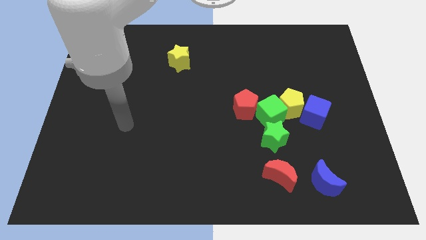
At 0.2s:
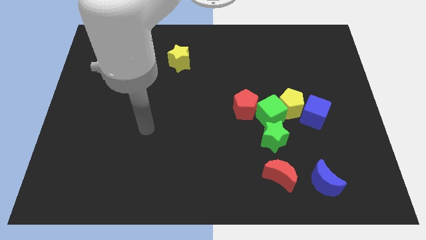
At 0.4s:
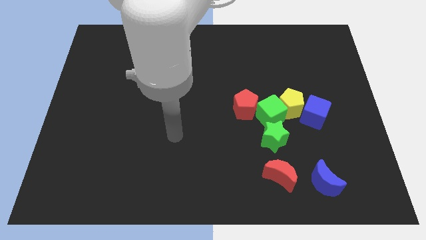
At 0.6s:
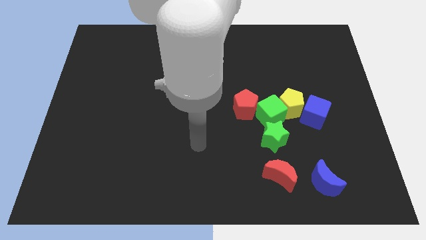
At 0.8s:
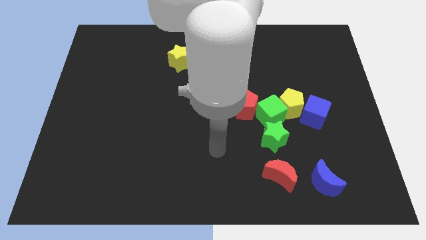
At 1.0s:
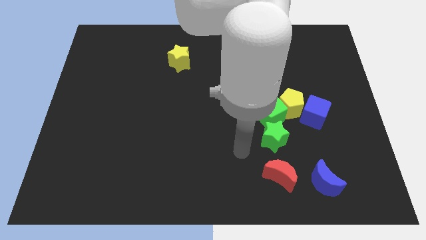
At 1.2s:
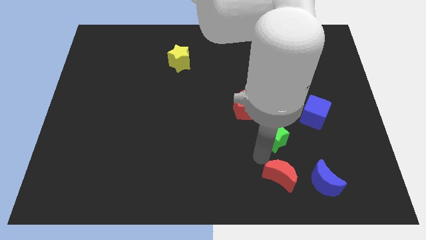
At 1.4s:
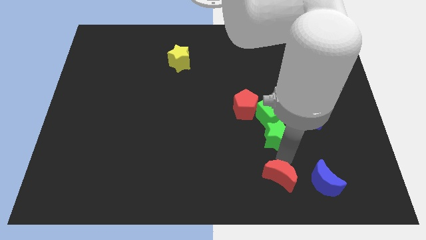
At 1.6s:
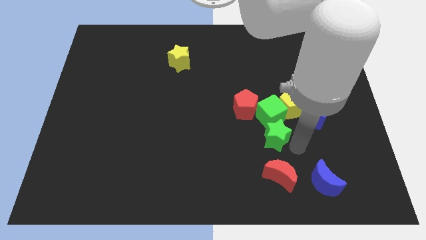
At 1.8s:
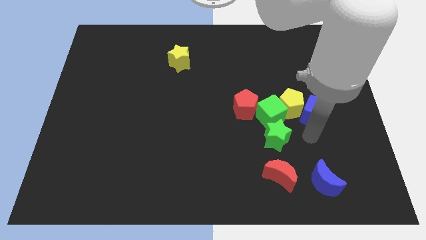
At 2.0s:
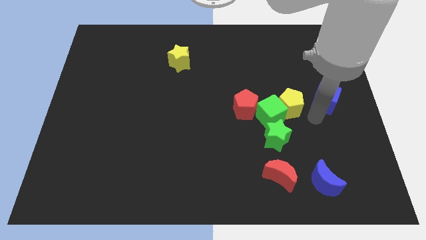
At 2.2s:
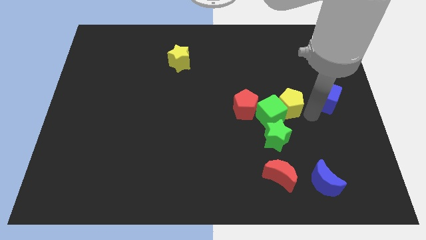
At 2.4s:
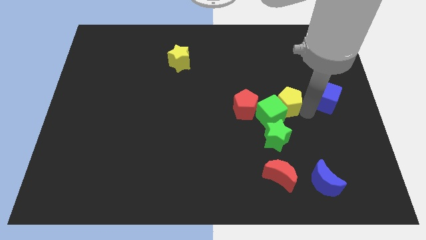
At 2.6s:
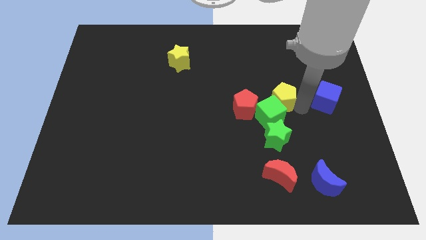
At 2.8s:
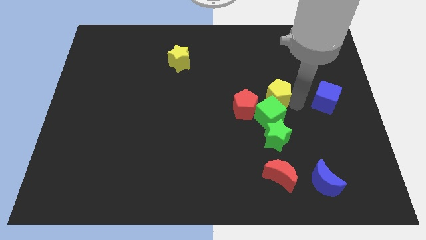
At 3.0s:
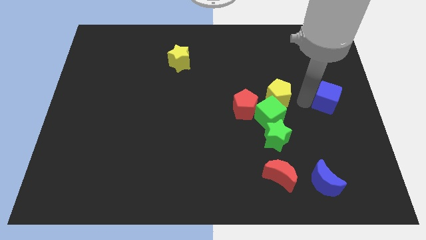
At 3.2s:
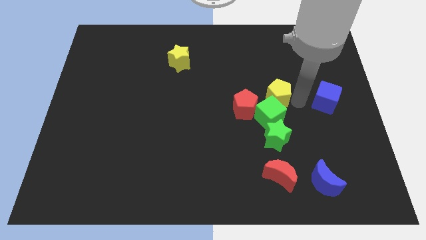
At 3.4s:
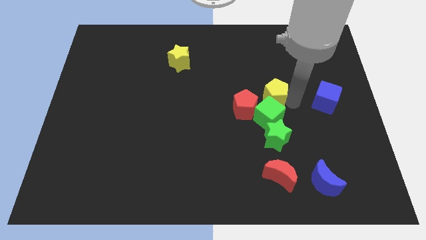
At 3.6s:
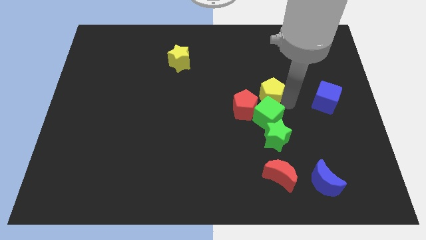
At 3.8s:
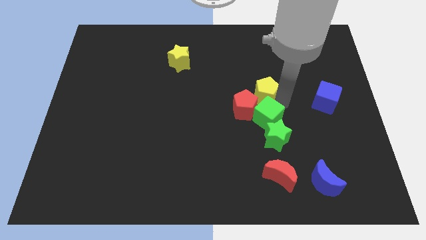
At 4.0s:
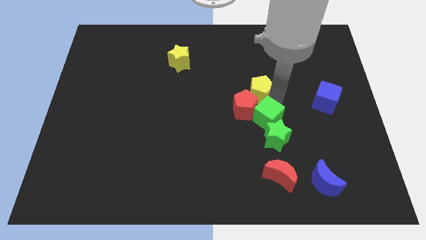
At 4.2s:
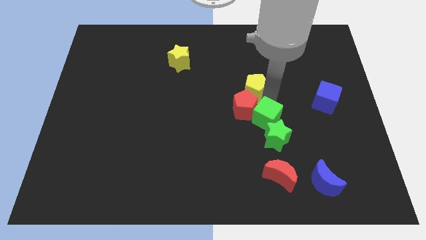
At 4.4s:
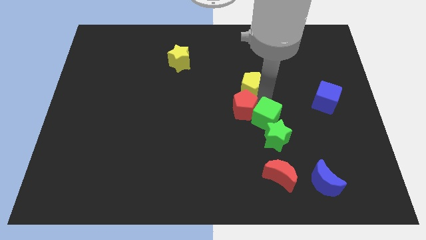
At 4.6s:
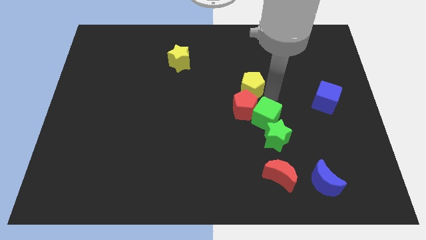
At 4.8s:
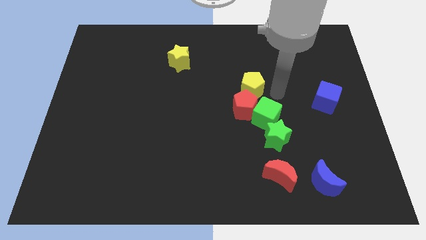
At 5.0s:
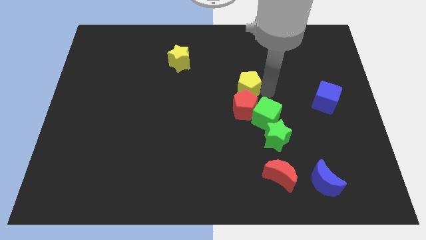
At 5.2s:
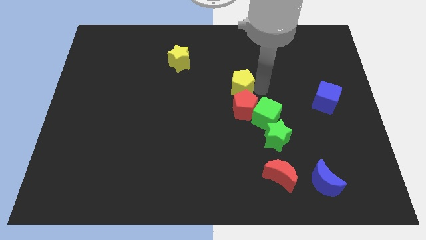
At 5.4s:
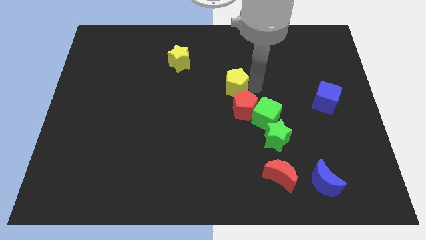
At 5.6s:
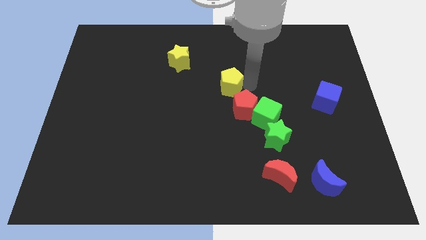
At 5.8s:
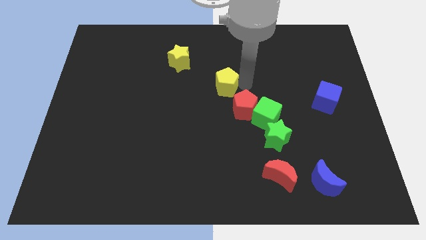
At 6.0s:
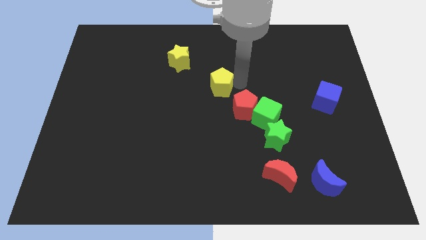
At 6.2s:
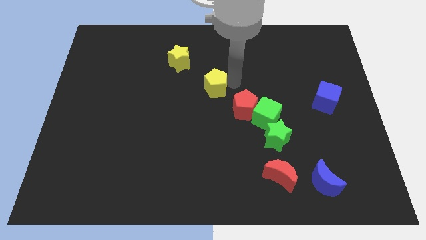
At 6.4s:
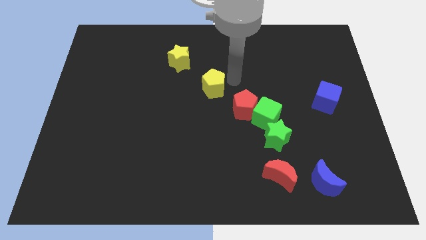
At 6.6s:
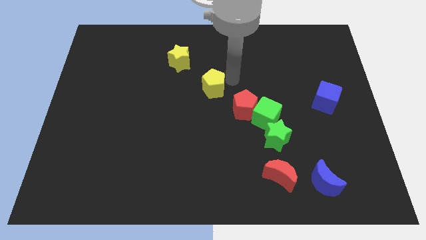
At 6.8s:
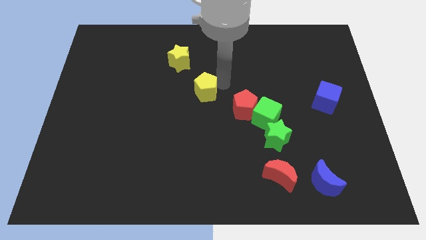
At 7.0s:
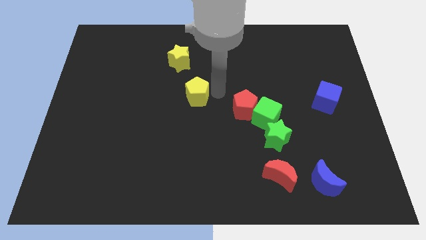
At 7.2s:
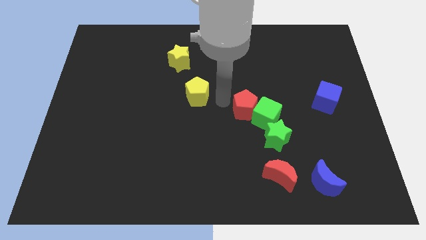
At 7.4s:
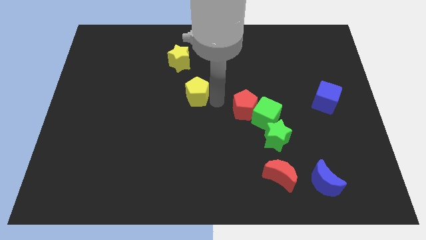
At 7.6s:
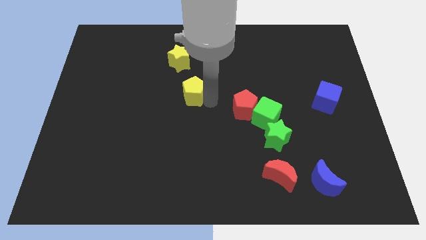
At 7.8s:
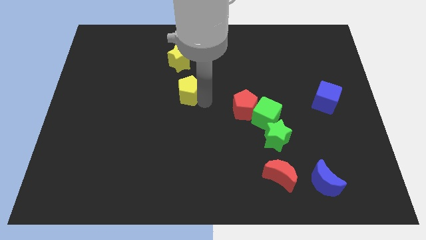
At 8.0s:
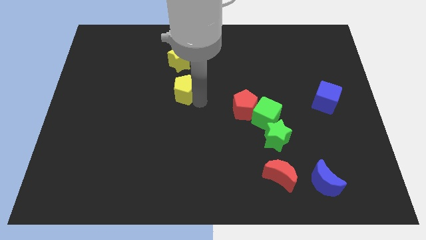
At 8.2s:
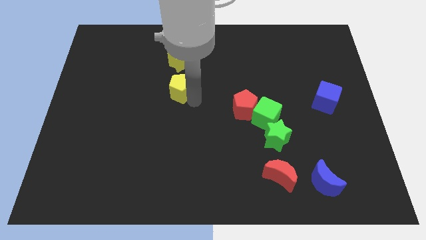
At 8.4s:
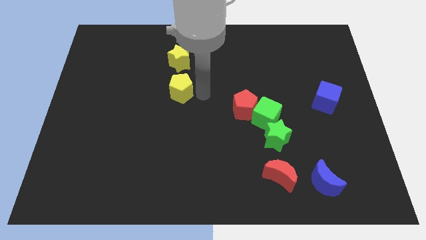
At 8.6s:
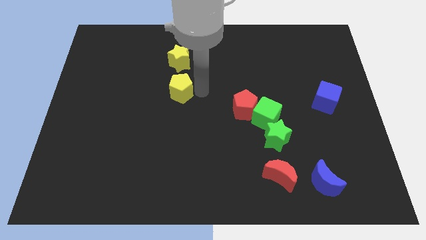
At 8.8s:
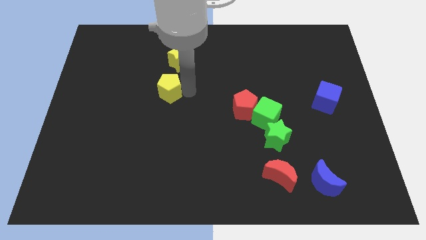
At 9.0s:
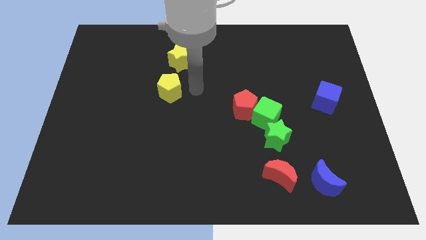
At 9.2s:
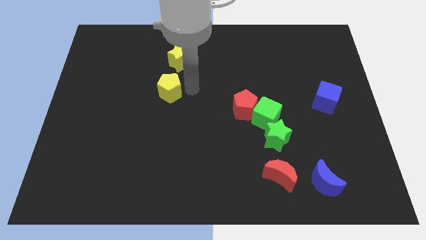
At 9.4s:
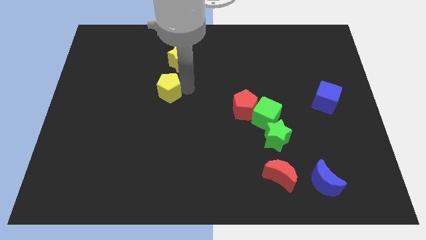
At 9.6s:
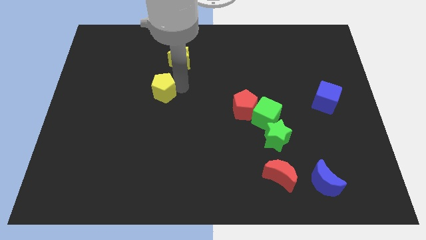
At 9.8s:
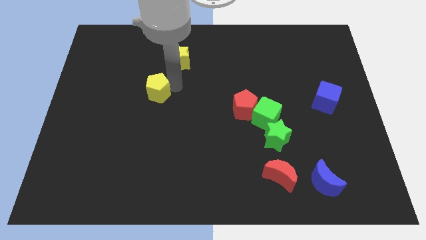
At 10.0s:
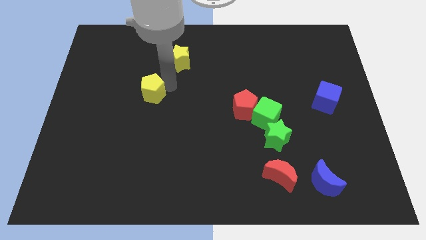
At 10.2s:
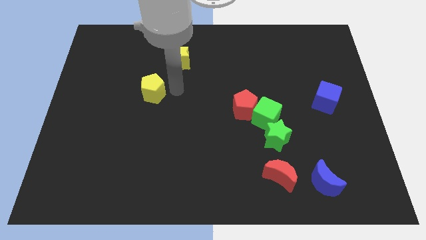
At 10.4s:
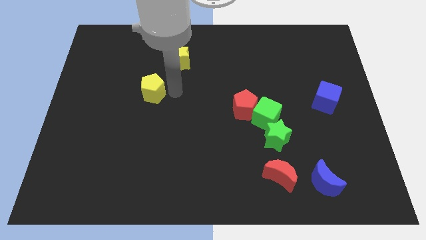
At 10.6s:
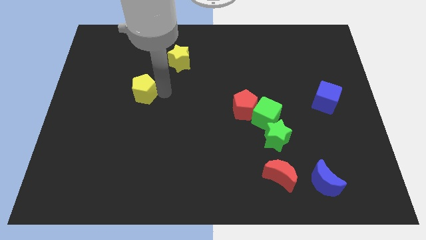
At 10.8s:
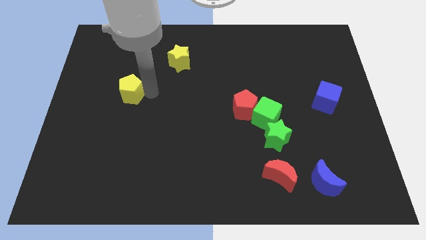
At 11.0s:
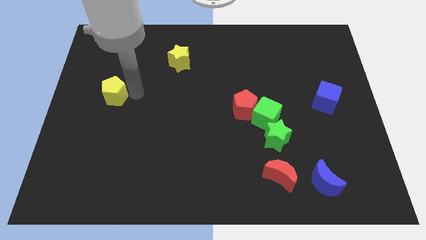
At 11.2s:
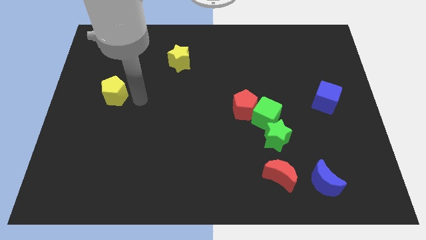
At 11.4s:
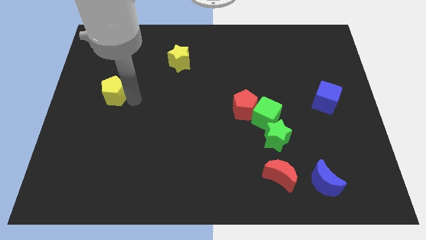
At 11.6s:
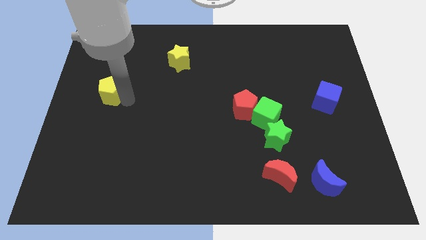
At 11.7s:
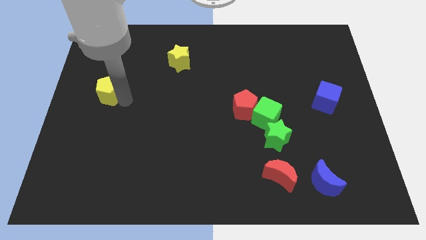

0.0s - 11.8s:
put the yellow pentagon to the left side of the board

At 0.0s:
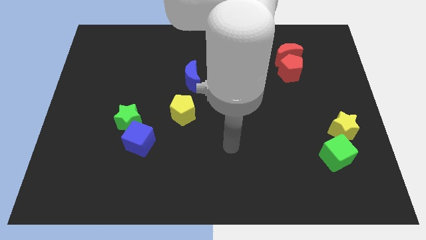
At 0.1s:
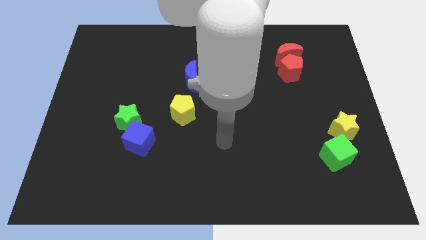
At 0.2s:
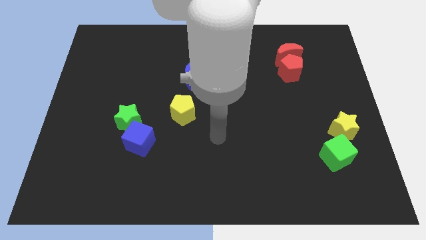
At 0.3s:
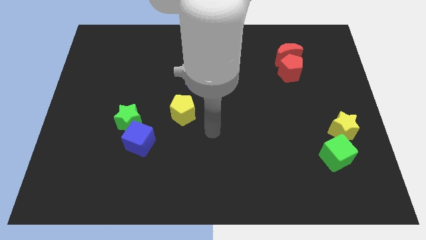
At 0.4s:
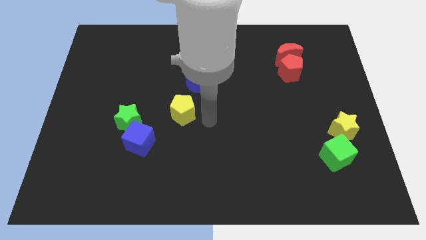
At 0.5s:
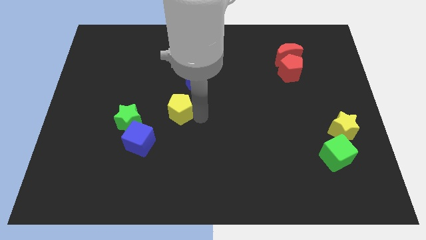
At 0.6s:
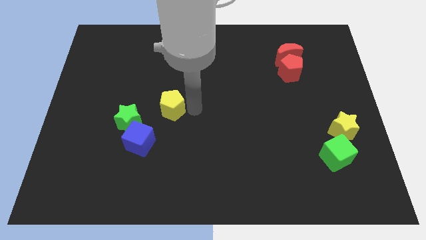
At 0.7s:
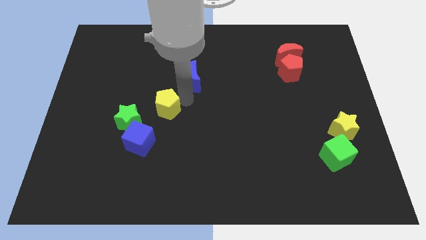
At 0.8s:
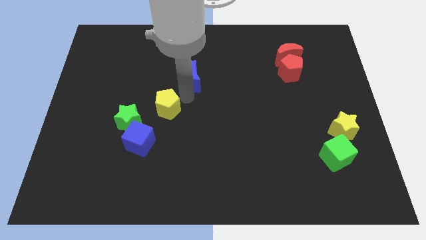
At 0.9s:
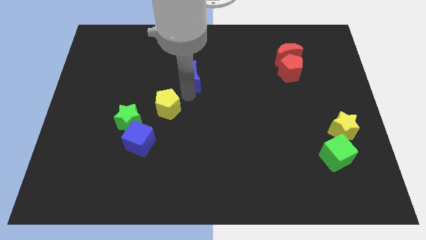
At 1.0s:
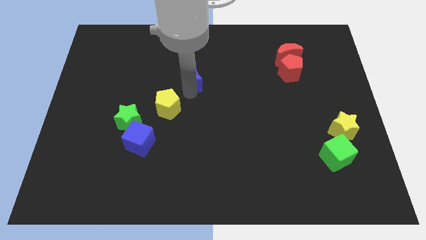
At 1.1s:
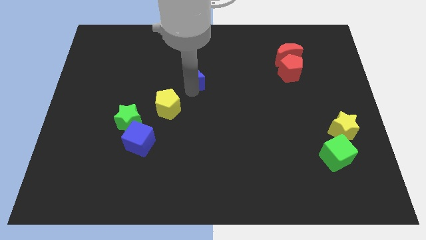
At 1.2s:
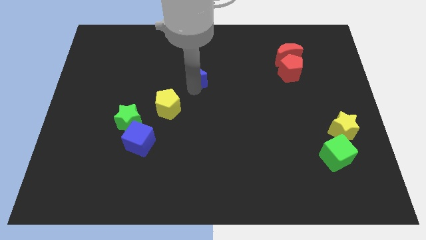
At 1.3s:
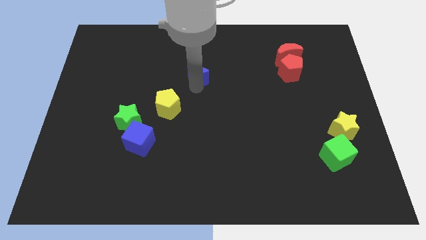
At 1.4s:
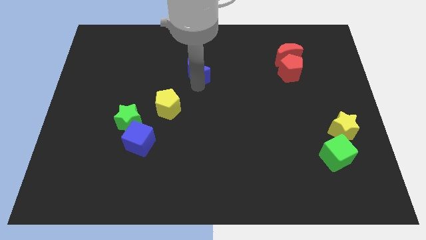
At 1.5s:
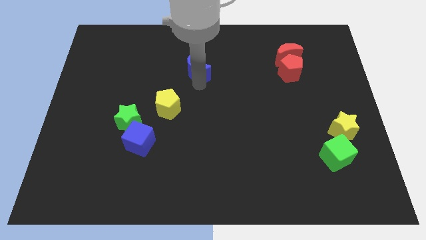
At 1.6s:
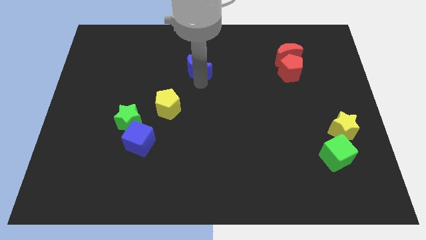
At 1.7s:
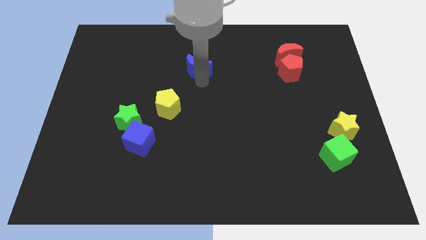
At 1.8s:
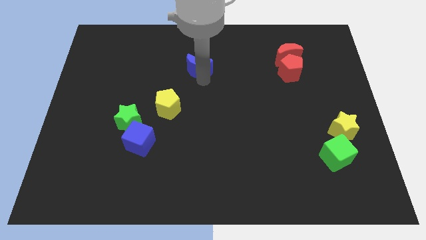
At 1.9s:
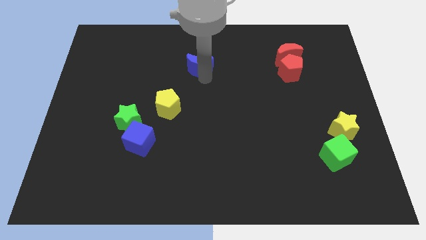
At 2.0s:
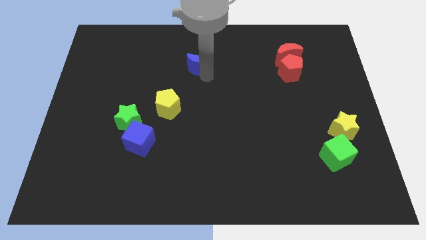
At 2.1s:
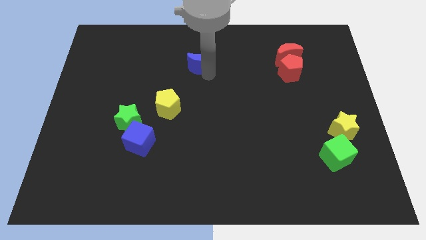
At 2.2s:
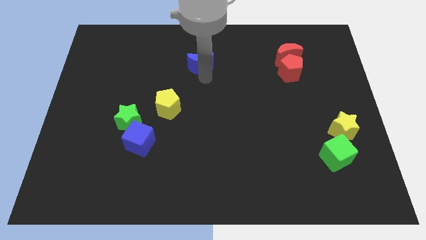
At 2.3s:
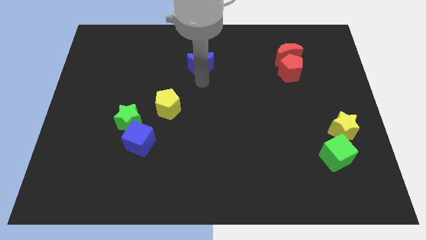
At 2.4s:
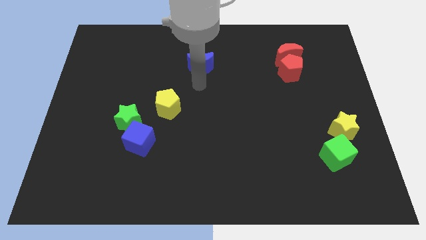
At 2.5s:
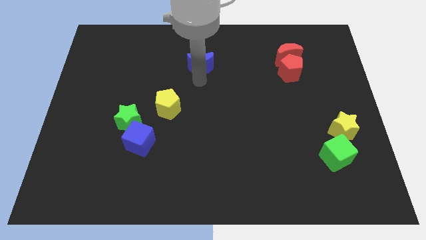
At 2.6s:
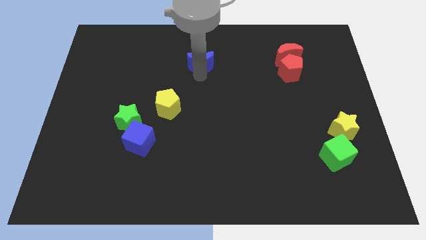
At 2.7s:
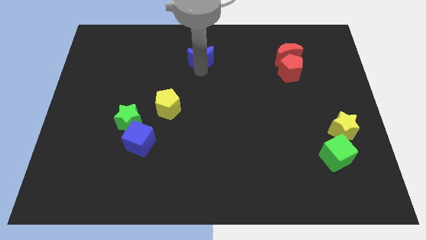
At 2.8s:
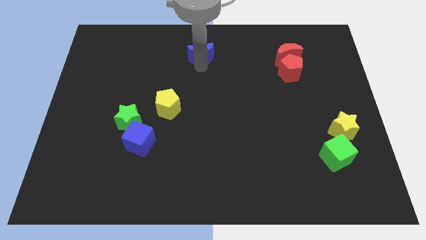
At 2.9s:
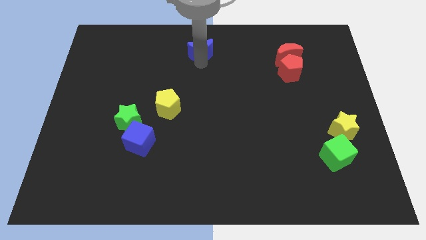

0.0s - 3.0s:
move the blue moon to the towards your base
